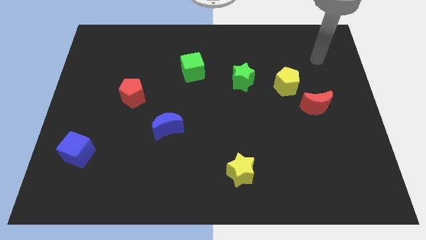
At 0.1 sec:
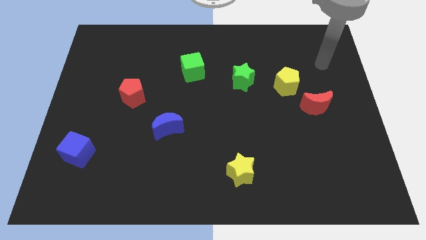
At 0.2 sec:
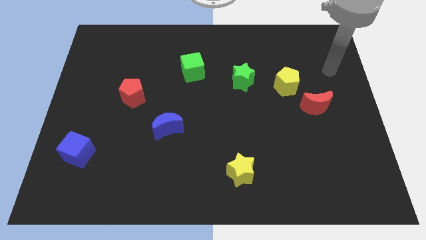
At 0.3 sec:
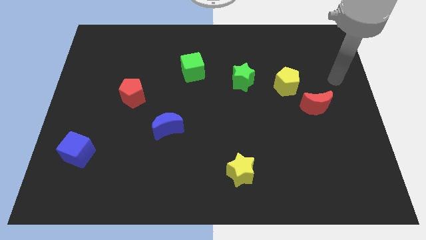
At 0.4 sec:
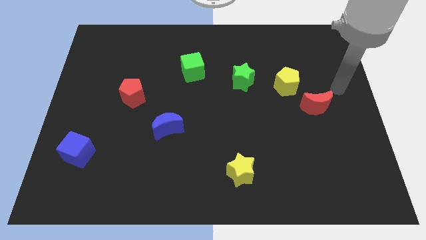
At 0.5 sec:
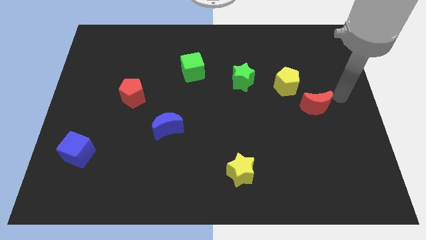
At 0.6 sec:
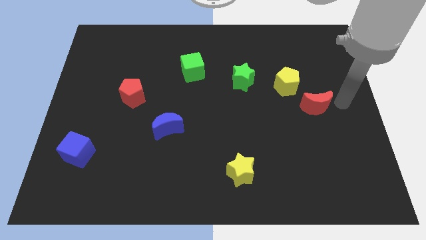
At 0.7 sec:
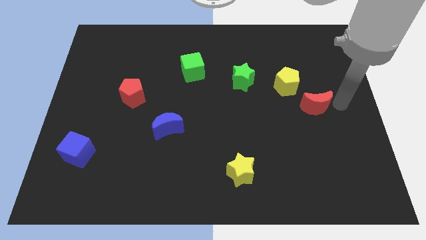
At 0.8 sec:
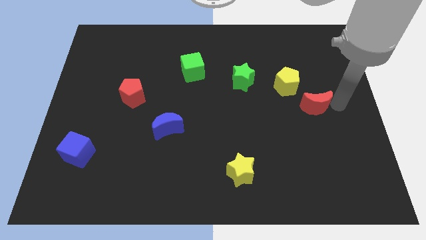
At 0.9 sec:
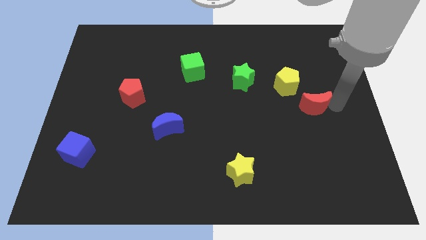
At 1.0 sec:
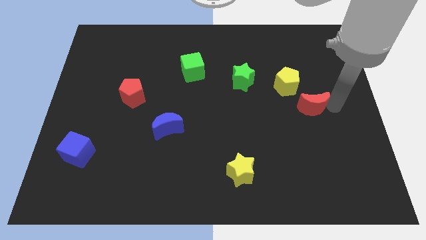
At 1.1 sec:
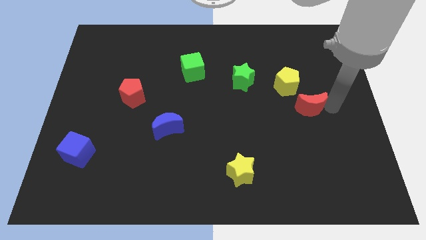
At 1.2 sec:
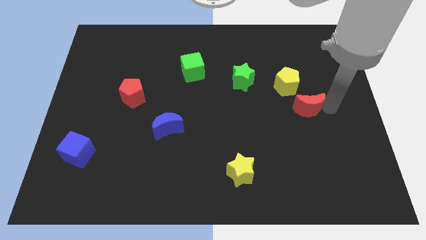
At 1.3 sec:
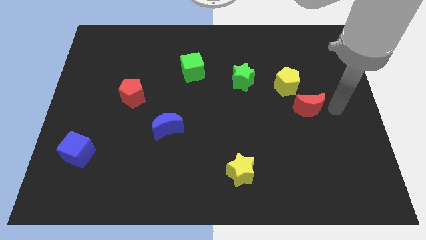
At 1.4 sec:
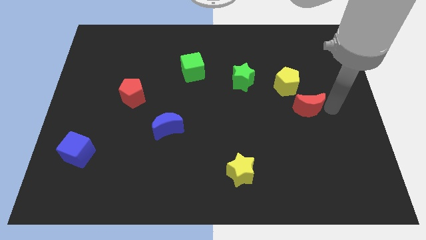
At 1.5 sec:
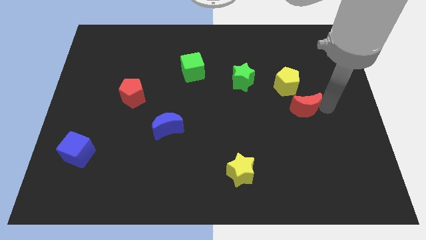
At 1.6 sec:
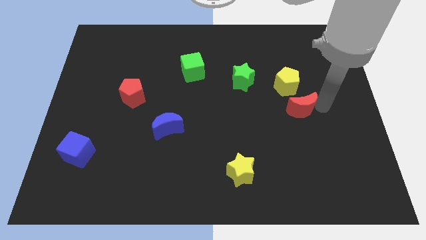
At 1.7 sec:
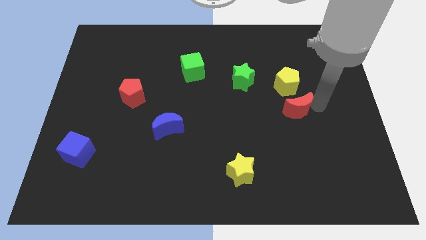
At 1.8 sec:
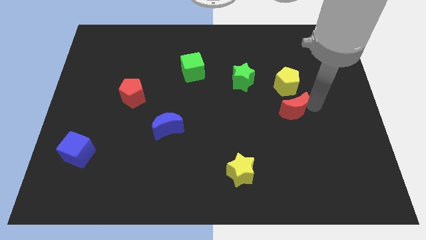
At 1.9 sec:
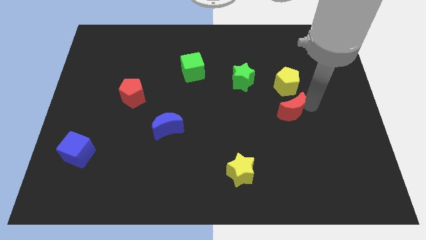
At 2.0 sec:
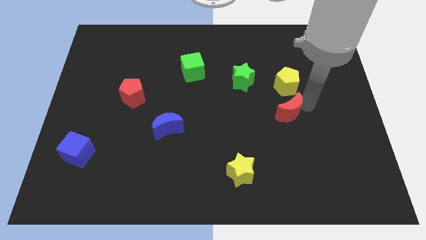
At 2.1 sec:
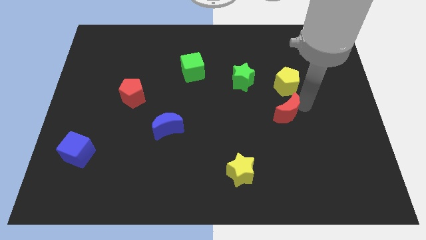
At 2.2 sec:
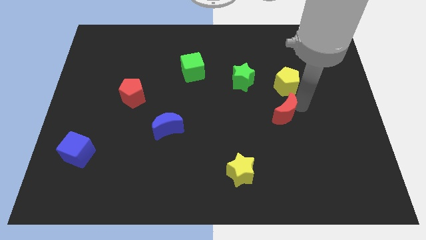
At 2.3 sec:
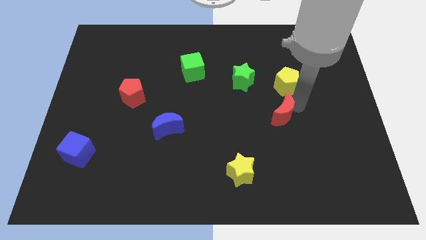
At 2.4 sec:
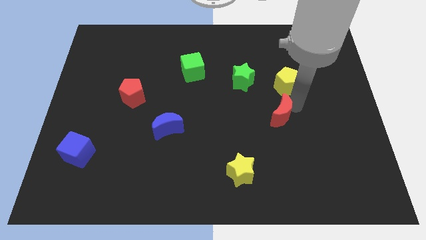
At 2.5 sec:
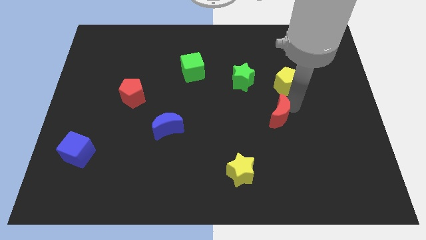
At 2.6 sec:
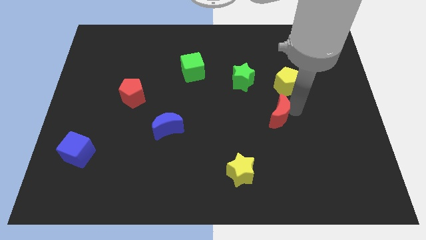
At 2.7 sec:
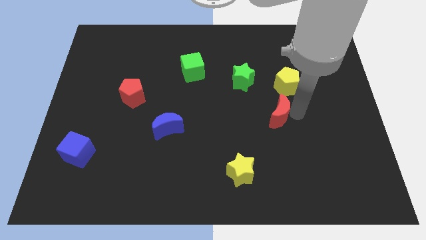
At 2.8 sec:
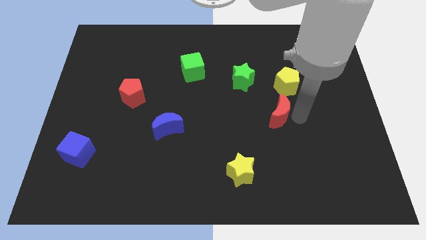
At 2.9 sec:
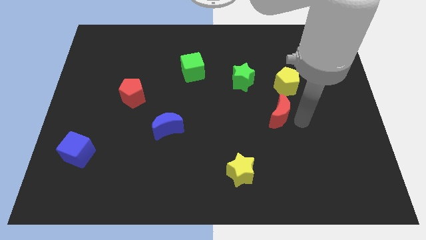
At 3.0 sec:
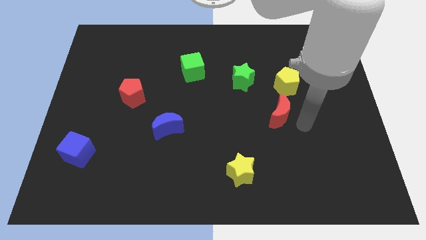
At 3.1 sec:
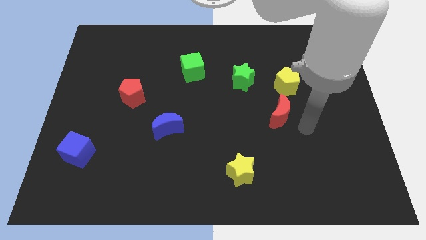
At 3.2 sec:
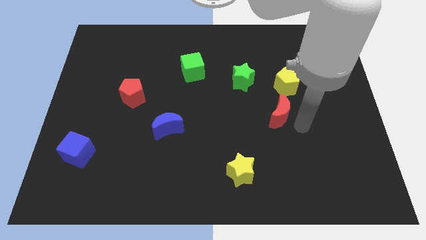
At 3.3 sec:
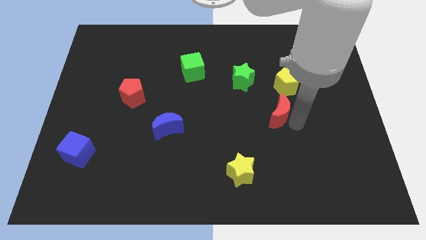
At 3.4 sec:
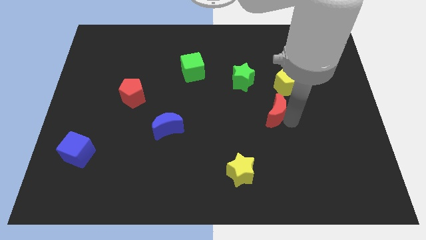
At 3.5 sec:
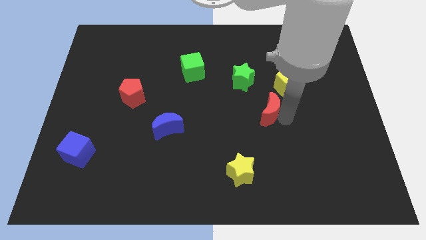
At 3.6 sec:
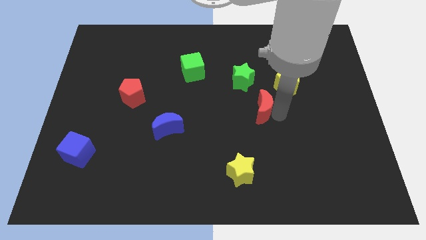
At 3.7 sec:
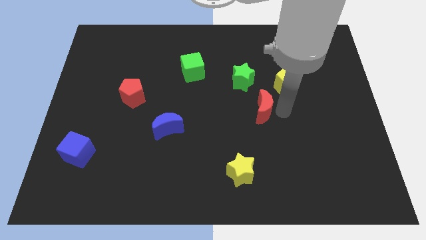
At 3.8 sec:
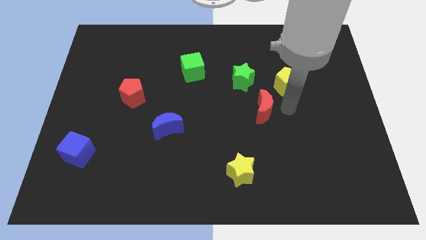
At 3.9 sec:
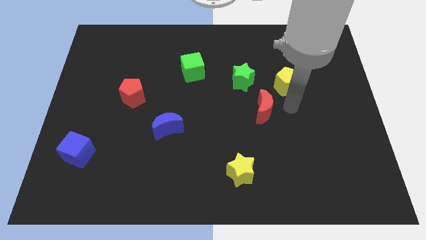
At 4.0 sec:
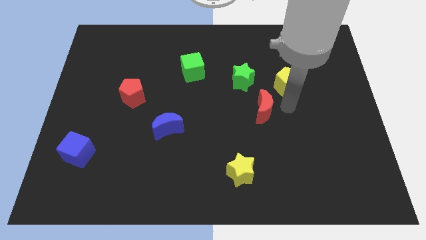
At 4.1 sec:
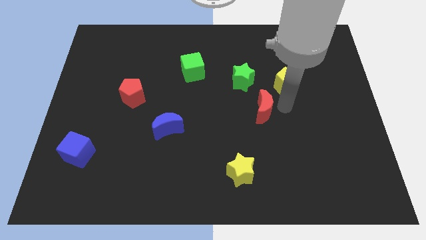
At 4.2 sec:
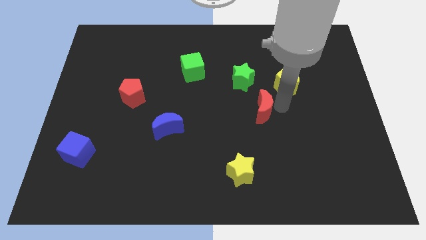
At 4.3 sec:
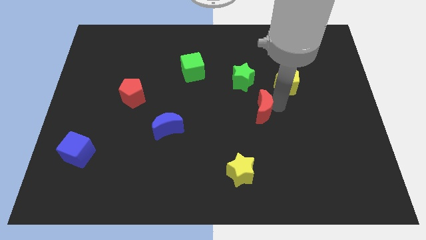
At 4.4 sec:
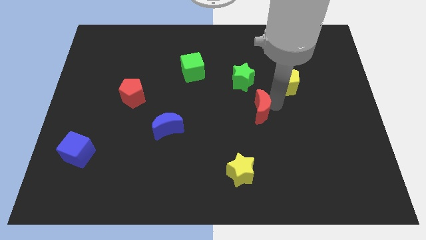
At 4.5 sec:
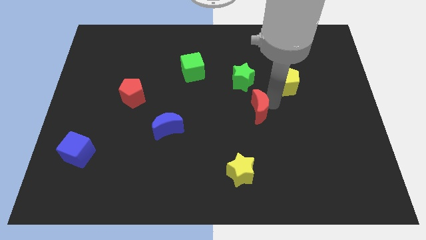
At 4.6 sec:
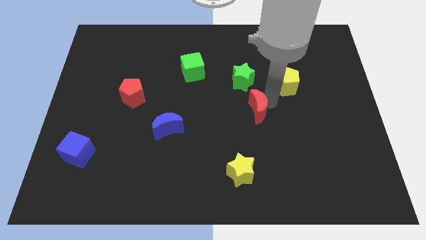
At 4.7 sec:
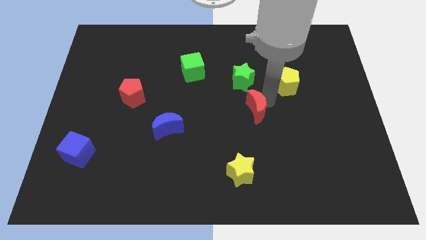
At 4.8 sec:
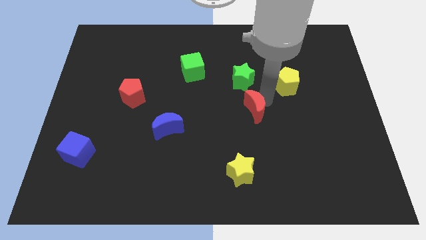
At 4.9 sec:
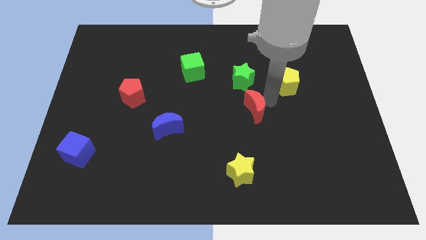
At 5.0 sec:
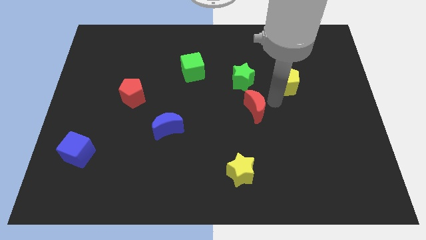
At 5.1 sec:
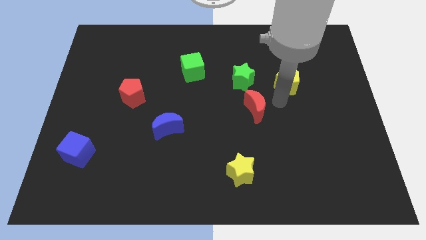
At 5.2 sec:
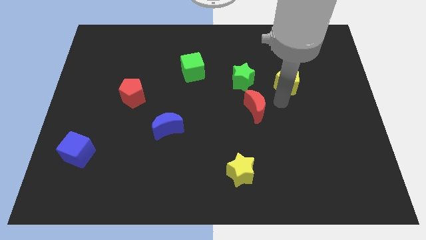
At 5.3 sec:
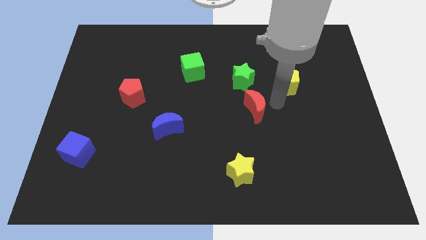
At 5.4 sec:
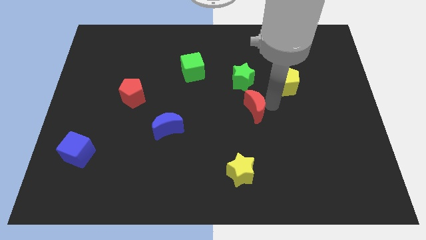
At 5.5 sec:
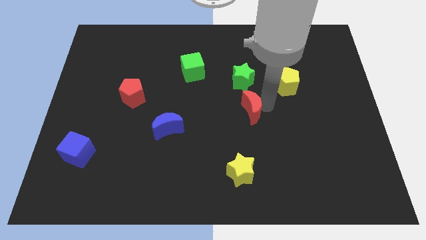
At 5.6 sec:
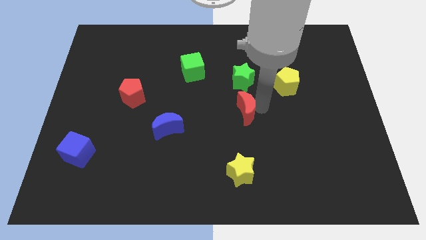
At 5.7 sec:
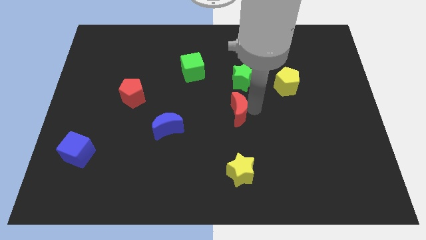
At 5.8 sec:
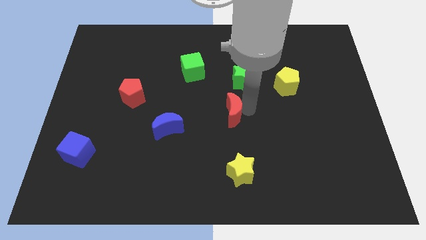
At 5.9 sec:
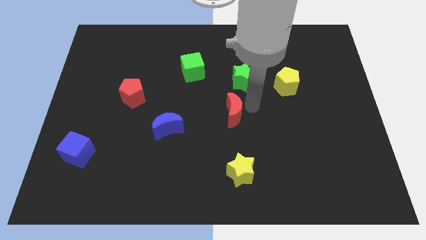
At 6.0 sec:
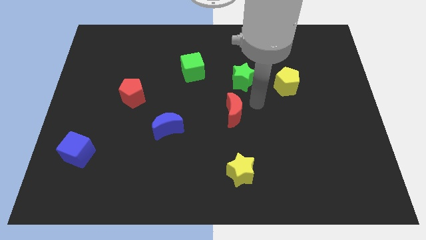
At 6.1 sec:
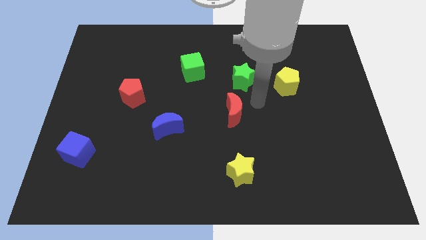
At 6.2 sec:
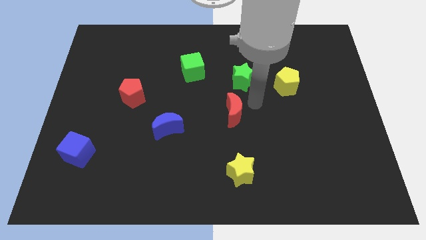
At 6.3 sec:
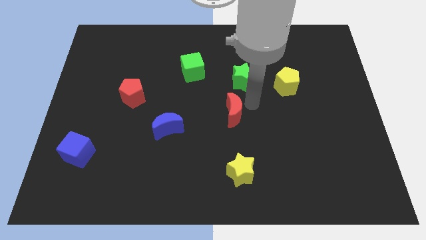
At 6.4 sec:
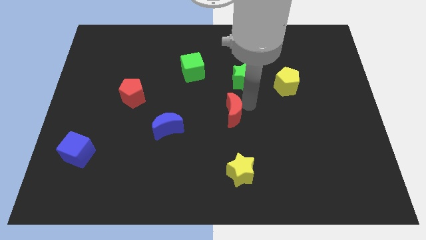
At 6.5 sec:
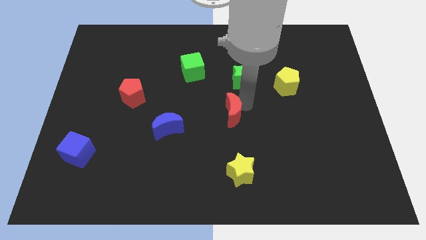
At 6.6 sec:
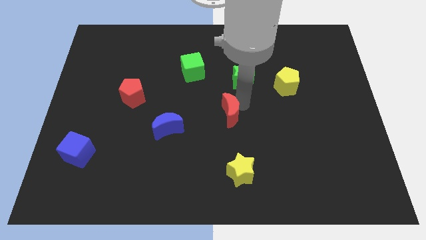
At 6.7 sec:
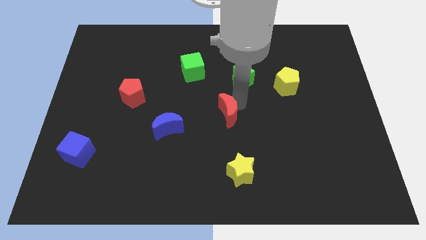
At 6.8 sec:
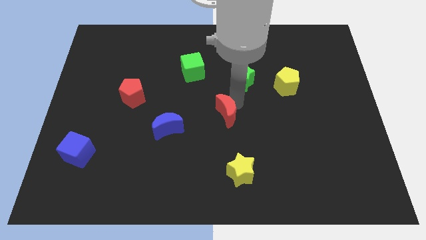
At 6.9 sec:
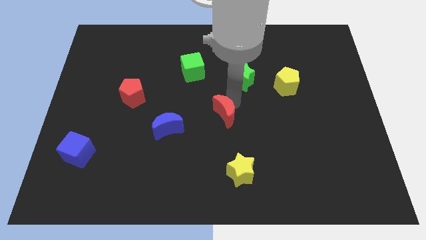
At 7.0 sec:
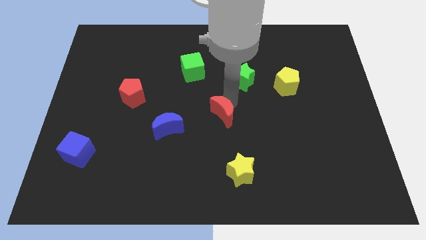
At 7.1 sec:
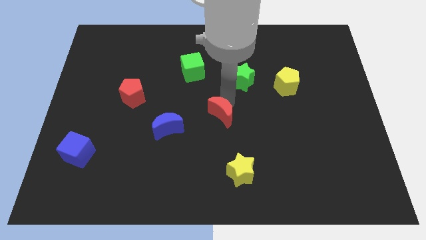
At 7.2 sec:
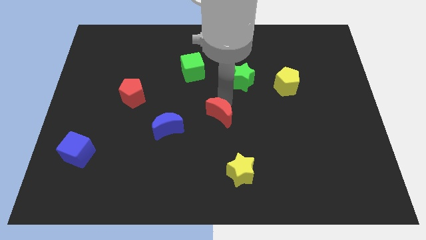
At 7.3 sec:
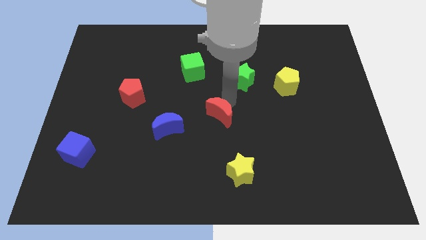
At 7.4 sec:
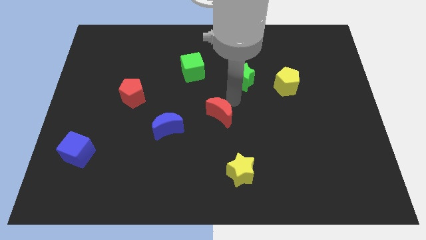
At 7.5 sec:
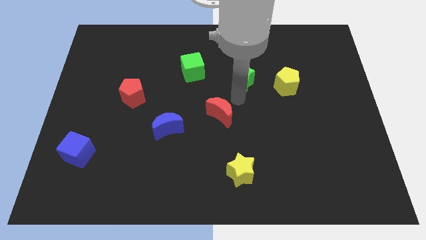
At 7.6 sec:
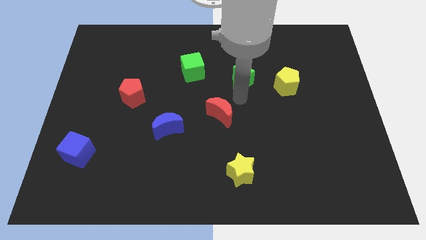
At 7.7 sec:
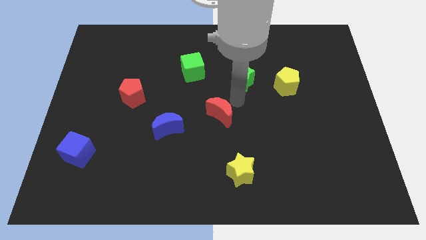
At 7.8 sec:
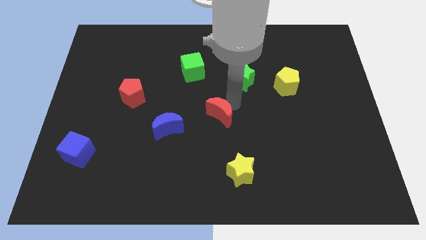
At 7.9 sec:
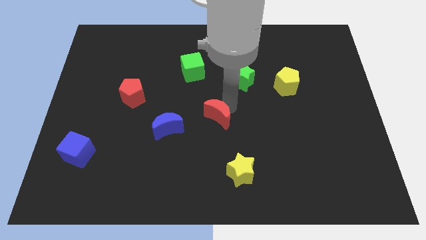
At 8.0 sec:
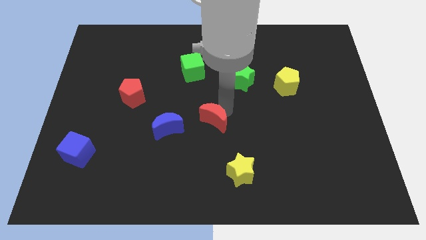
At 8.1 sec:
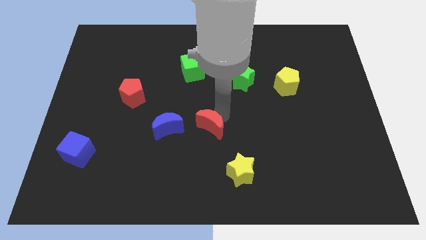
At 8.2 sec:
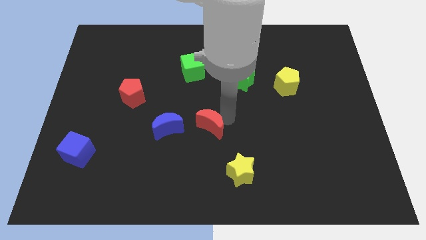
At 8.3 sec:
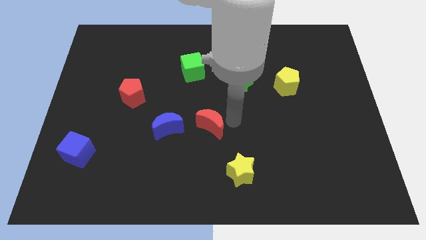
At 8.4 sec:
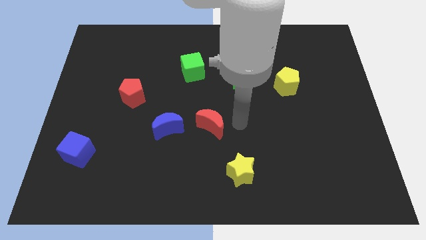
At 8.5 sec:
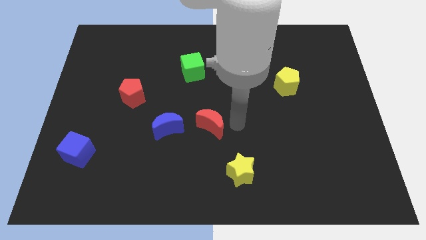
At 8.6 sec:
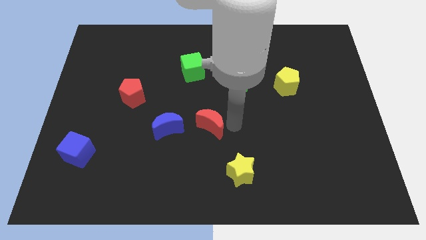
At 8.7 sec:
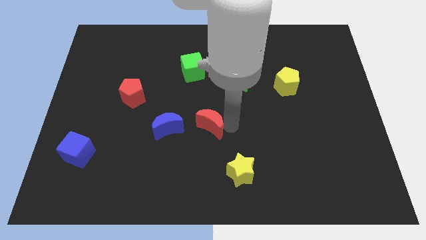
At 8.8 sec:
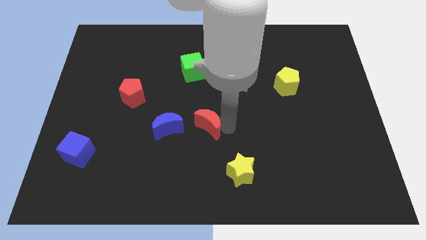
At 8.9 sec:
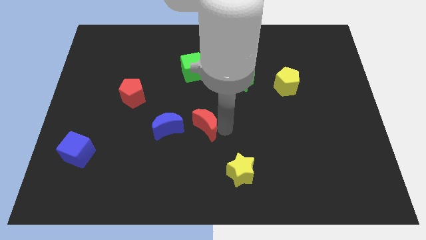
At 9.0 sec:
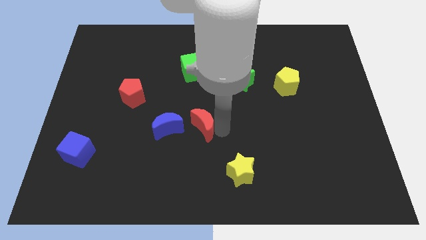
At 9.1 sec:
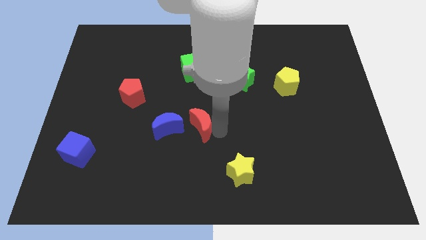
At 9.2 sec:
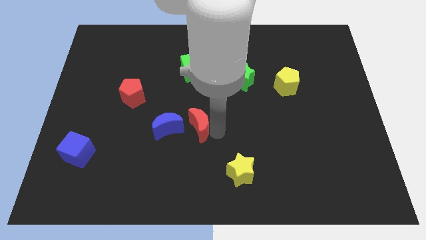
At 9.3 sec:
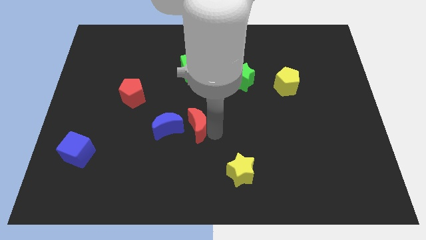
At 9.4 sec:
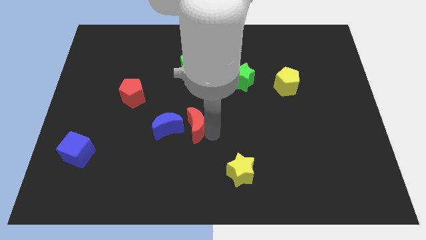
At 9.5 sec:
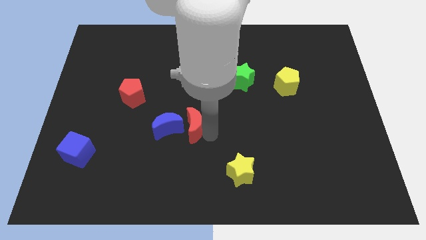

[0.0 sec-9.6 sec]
slide the red moon to the blue moon
